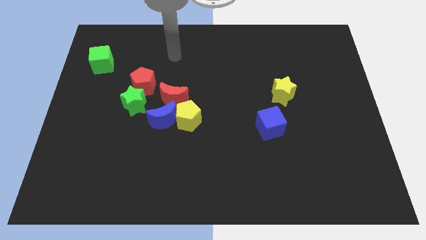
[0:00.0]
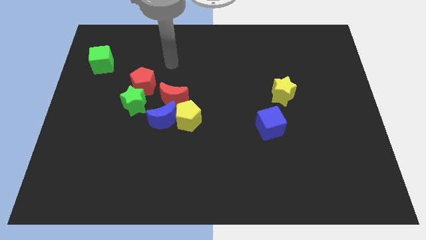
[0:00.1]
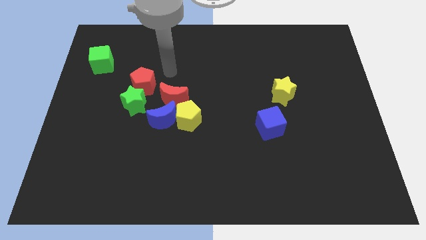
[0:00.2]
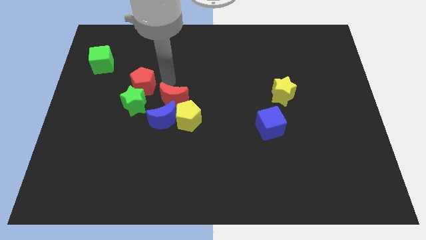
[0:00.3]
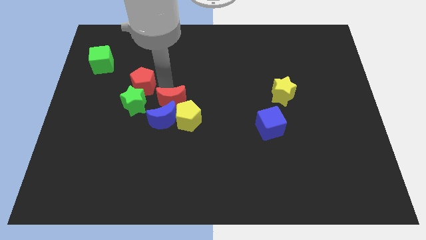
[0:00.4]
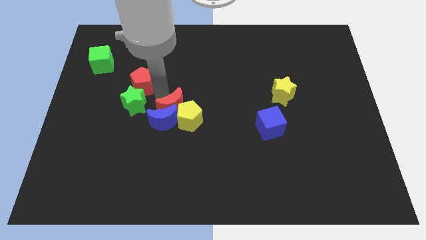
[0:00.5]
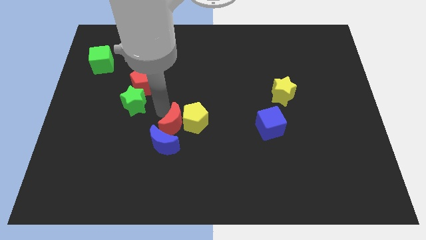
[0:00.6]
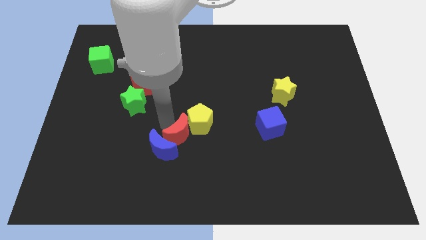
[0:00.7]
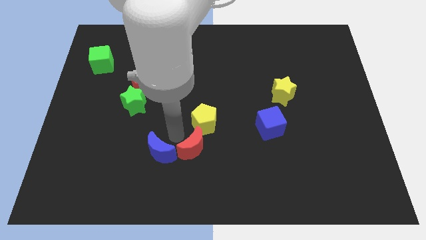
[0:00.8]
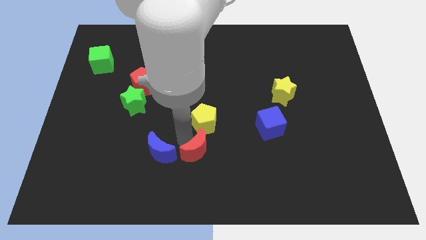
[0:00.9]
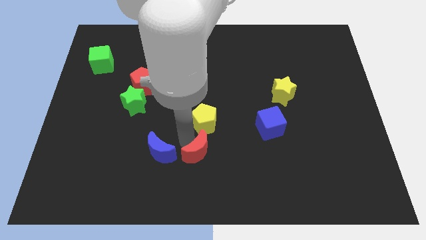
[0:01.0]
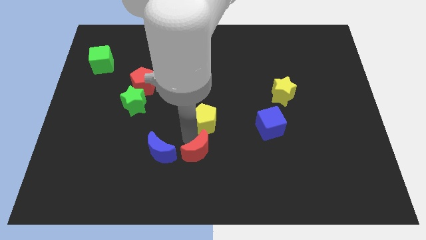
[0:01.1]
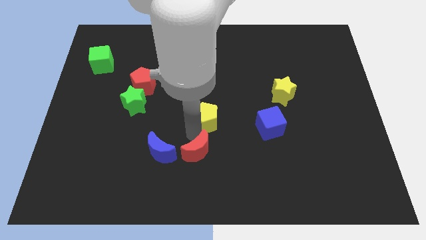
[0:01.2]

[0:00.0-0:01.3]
separate the yellow pentagon from the blue moon and red moon

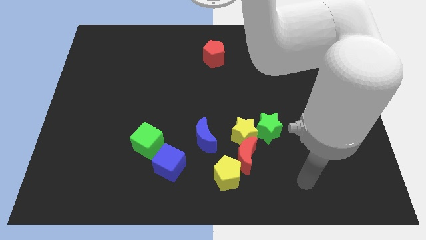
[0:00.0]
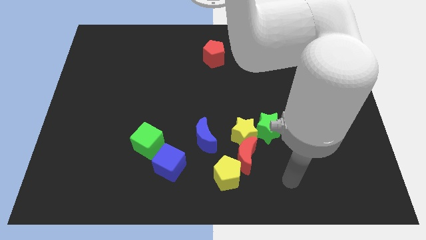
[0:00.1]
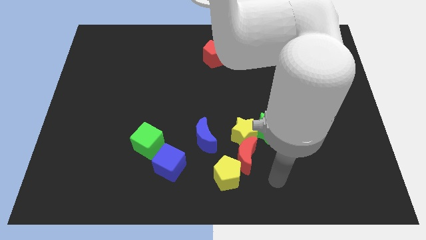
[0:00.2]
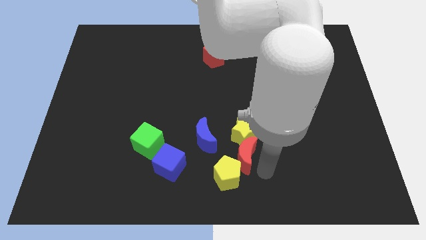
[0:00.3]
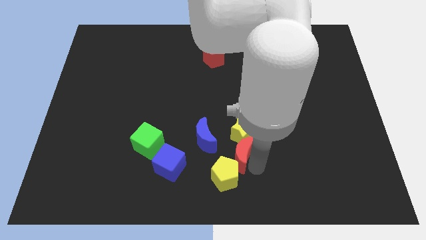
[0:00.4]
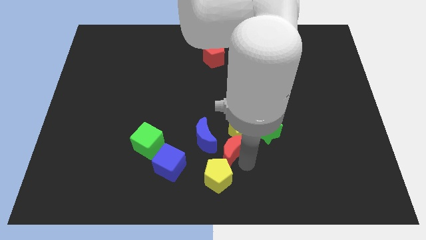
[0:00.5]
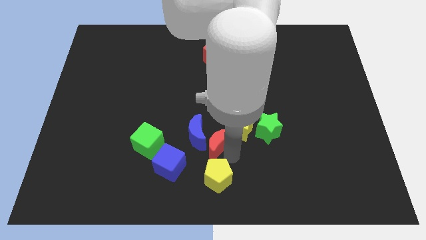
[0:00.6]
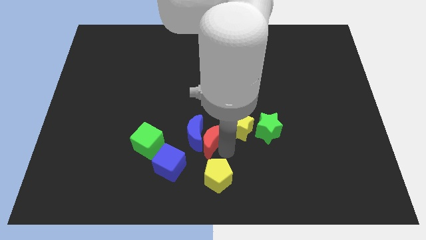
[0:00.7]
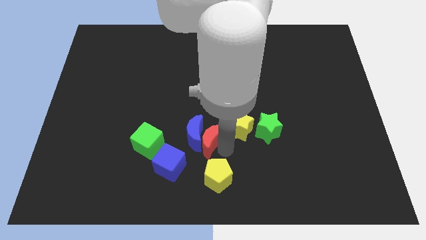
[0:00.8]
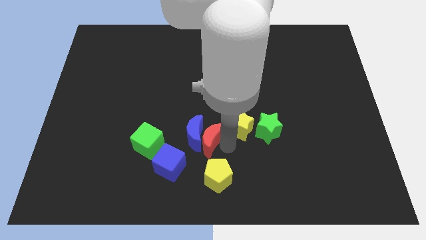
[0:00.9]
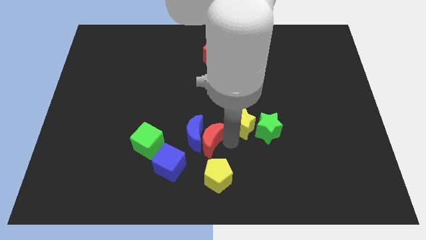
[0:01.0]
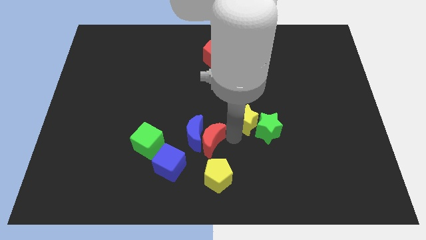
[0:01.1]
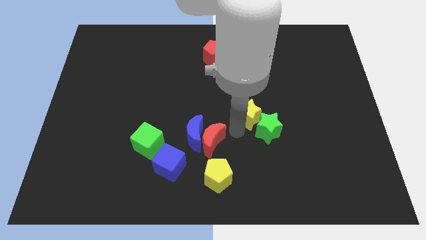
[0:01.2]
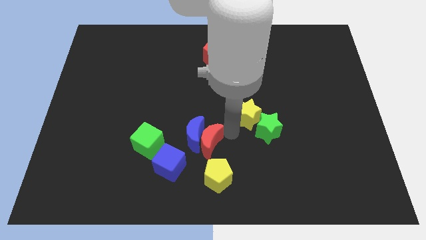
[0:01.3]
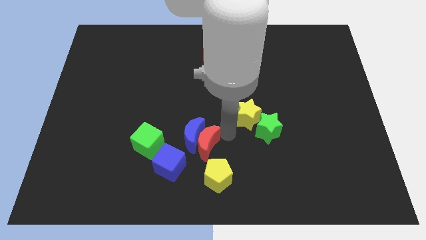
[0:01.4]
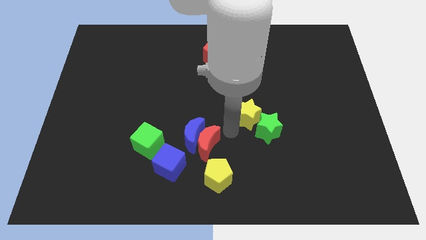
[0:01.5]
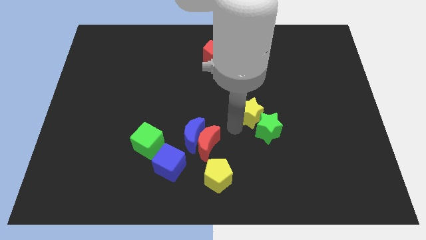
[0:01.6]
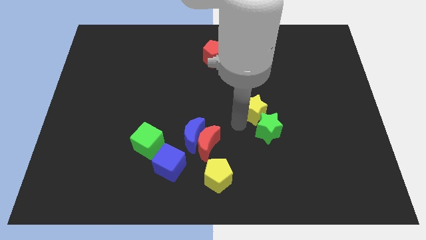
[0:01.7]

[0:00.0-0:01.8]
pull the yellow star apart from the red moon, green star, and blue moon

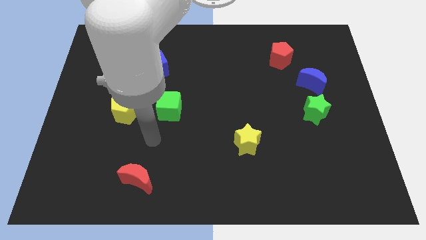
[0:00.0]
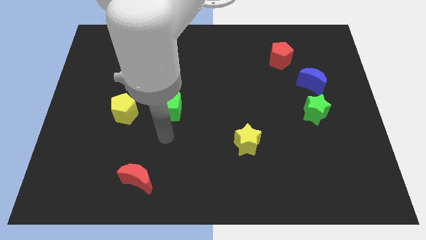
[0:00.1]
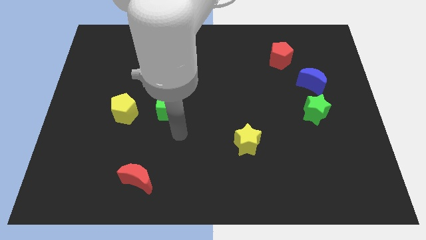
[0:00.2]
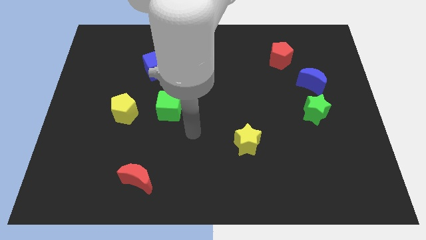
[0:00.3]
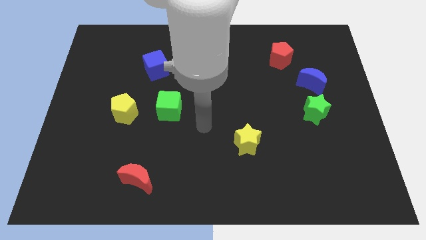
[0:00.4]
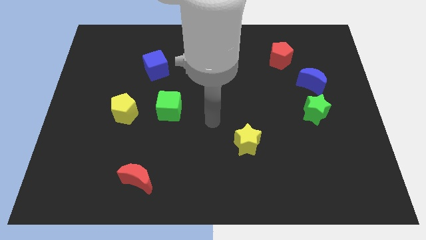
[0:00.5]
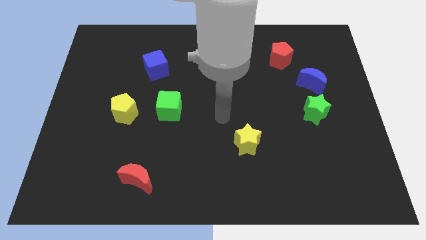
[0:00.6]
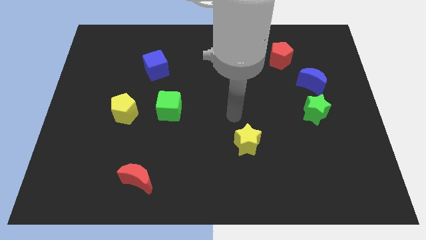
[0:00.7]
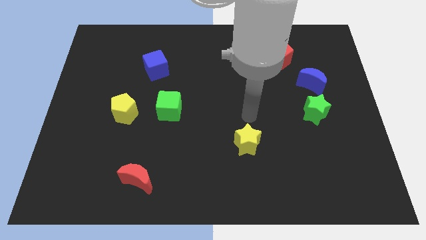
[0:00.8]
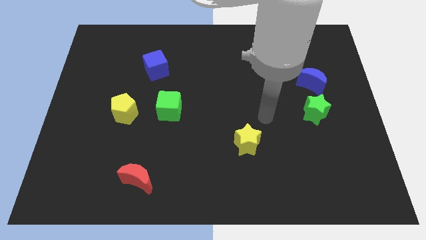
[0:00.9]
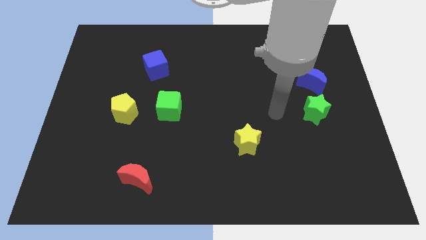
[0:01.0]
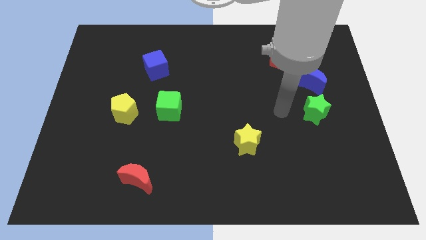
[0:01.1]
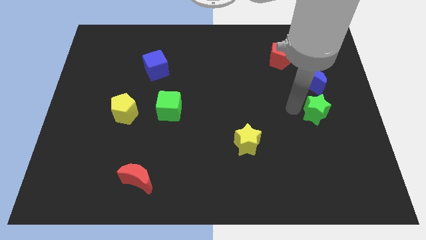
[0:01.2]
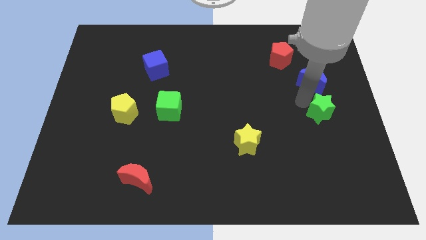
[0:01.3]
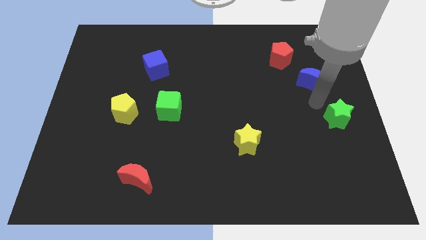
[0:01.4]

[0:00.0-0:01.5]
pull the blue moon apart from the green star

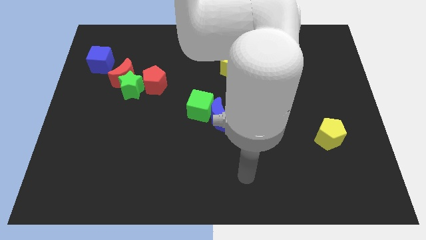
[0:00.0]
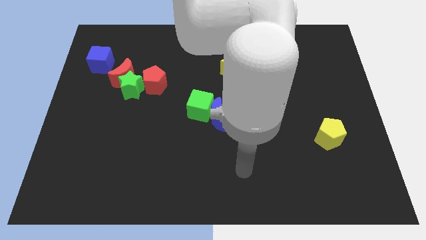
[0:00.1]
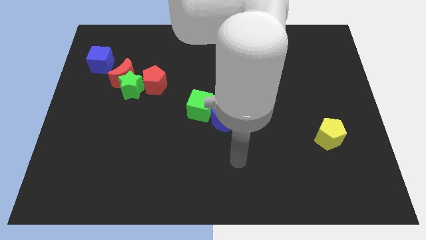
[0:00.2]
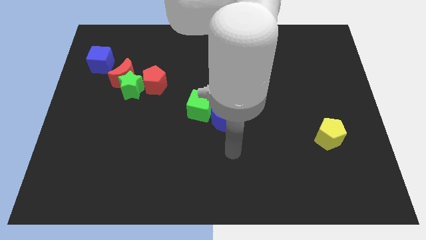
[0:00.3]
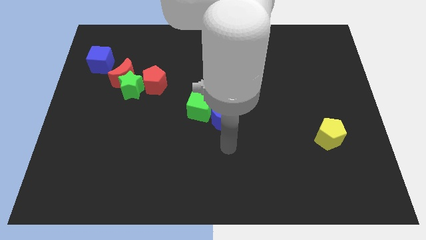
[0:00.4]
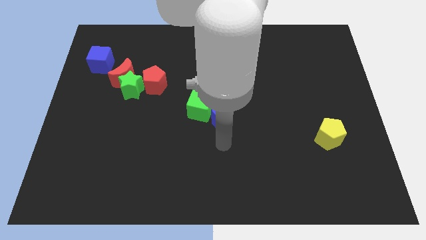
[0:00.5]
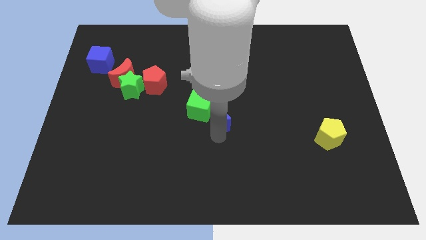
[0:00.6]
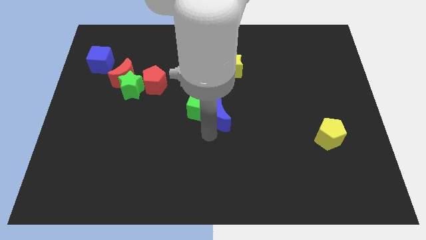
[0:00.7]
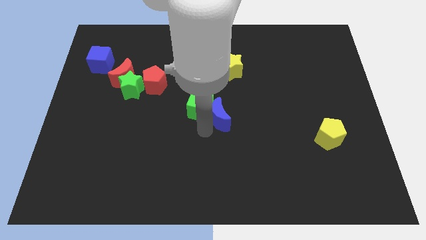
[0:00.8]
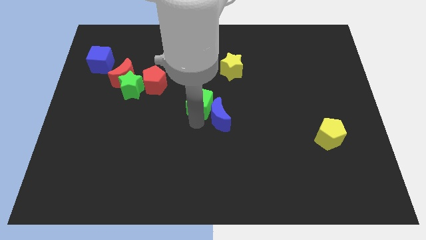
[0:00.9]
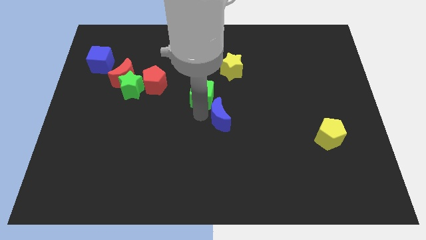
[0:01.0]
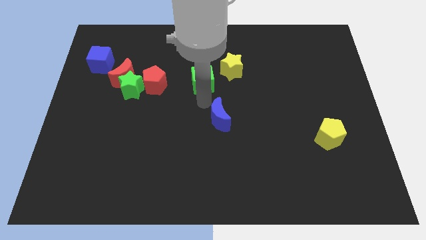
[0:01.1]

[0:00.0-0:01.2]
pull the blue moon apart from the green cube

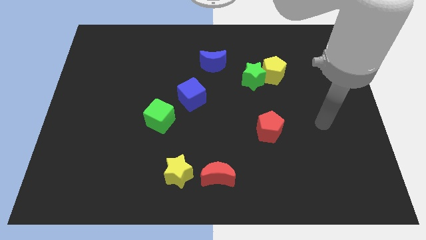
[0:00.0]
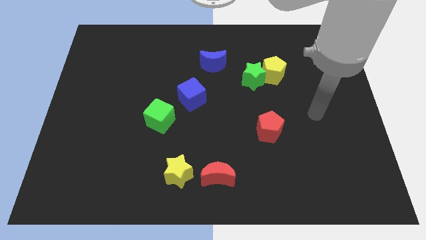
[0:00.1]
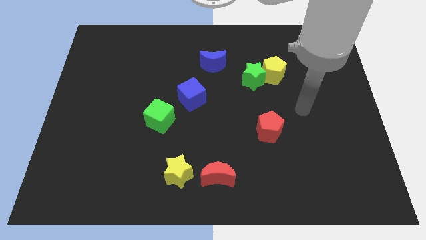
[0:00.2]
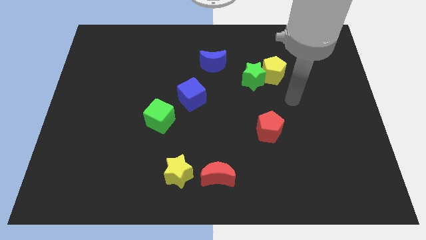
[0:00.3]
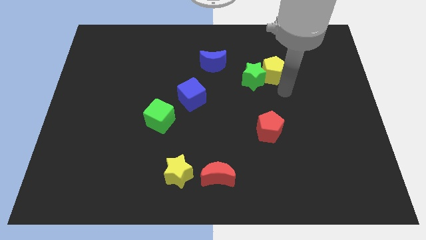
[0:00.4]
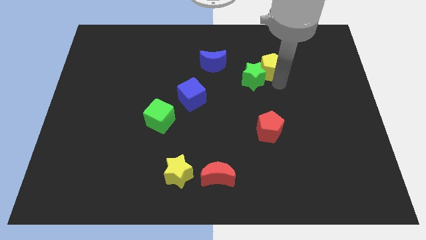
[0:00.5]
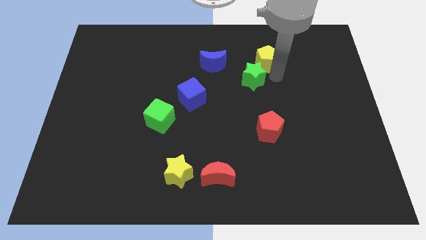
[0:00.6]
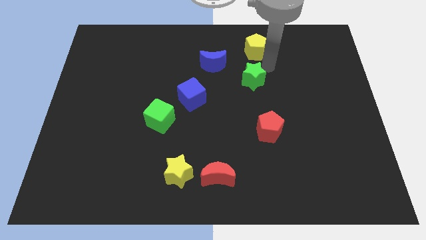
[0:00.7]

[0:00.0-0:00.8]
move the green star away from the yellow pentagon

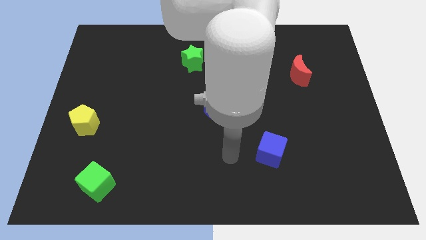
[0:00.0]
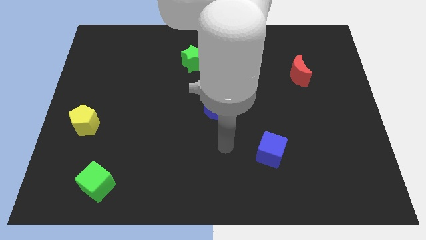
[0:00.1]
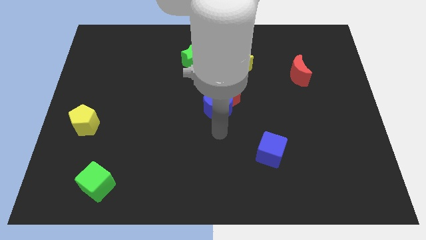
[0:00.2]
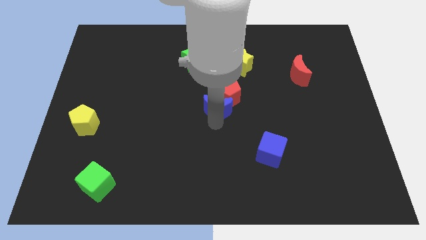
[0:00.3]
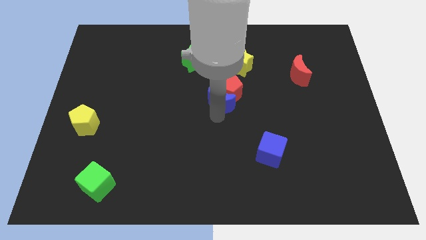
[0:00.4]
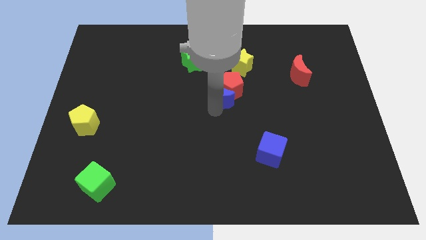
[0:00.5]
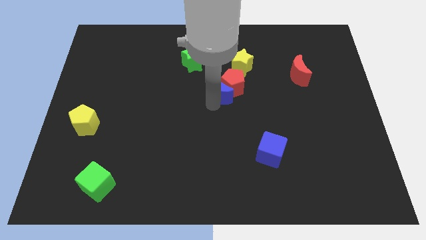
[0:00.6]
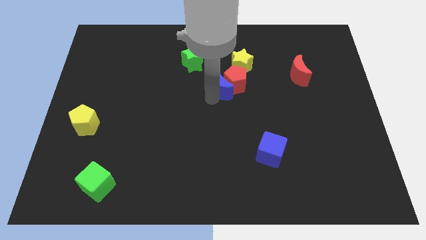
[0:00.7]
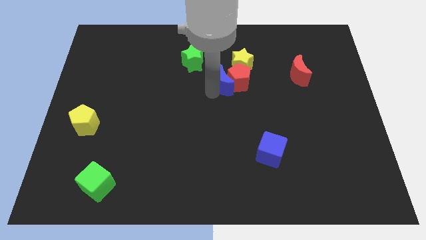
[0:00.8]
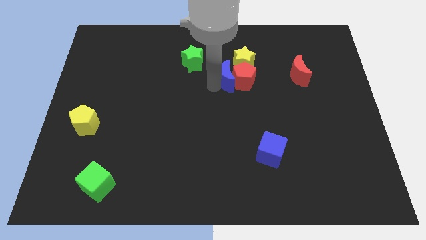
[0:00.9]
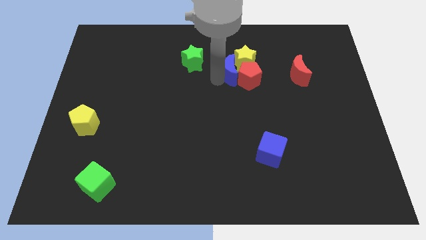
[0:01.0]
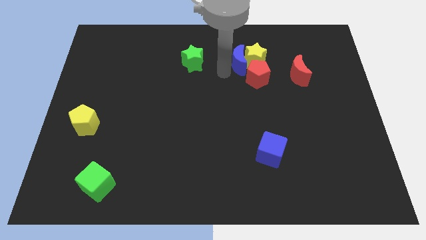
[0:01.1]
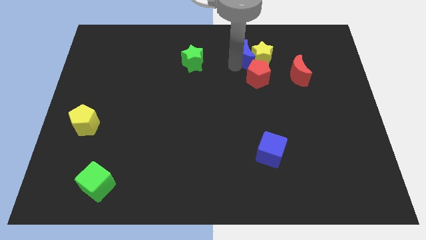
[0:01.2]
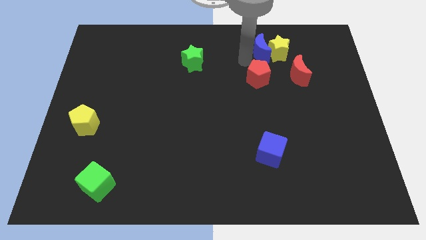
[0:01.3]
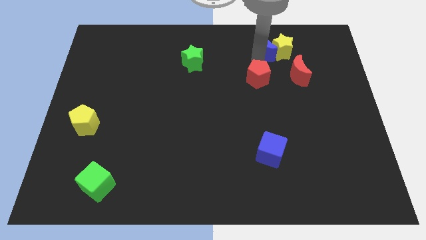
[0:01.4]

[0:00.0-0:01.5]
move the red pentagon away from the blue moon

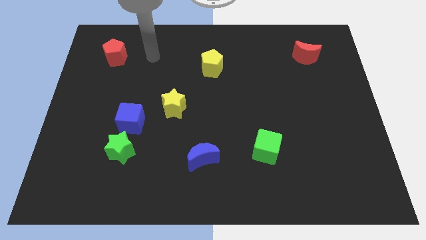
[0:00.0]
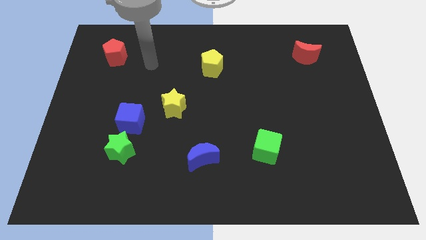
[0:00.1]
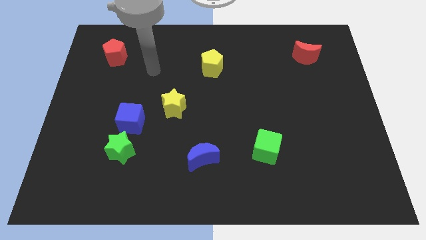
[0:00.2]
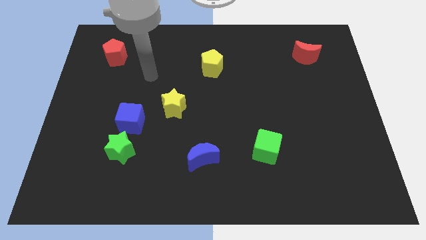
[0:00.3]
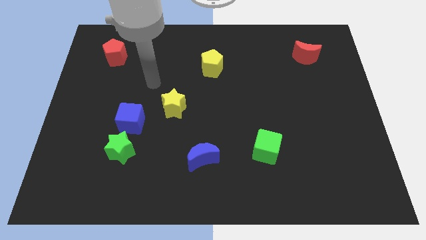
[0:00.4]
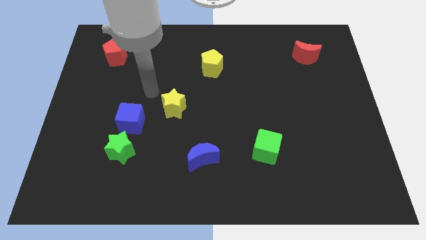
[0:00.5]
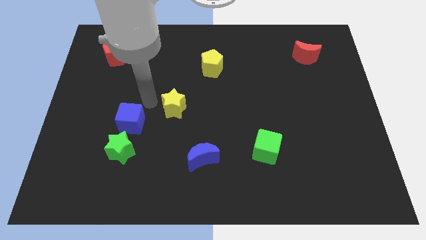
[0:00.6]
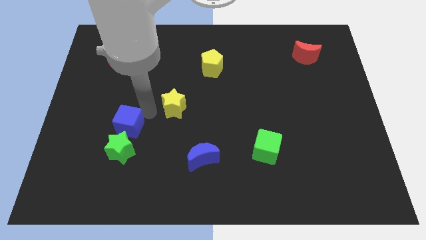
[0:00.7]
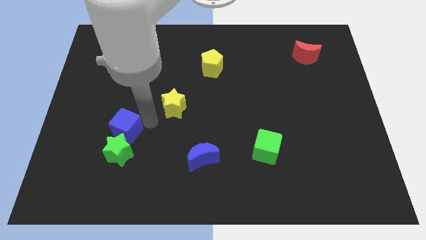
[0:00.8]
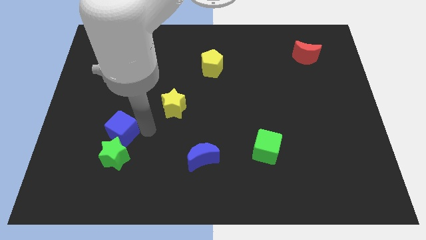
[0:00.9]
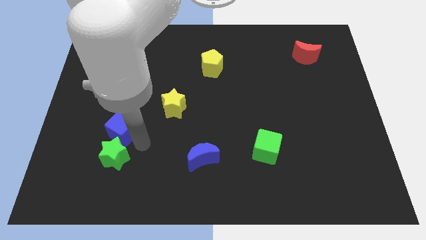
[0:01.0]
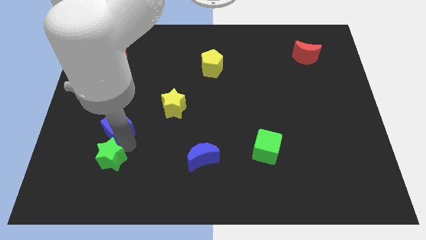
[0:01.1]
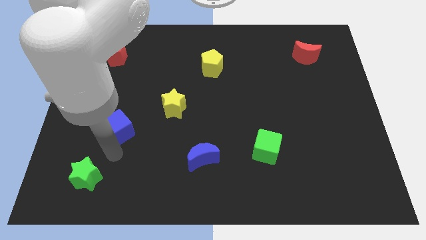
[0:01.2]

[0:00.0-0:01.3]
separate the blue cube from the green star
